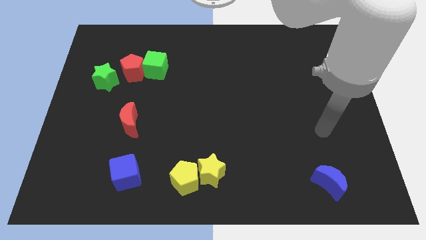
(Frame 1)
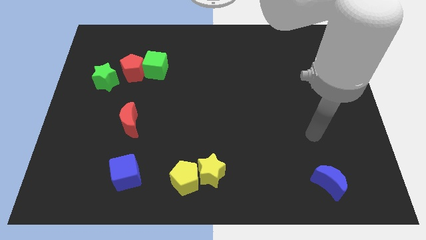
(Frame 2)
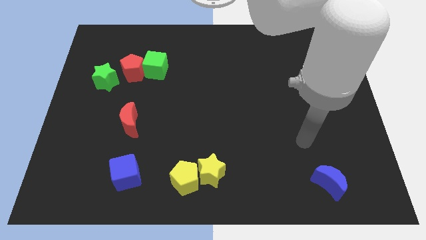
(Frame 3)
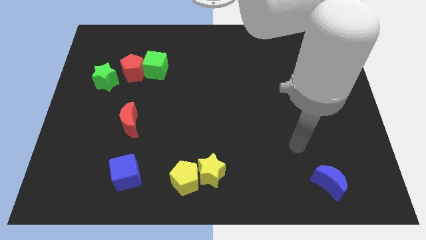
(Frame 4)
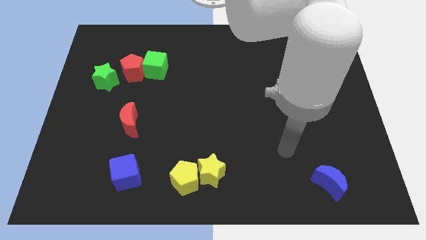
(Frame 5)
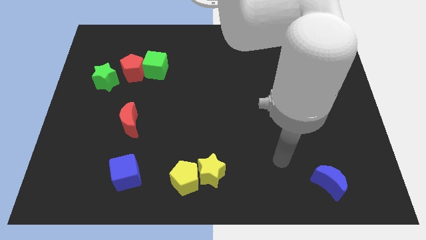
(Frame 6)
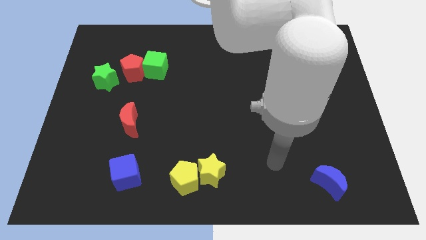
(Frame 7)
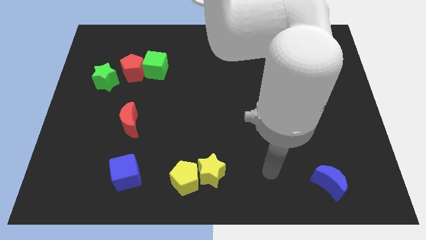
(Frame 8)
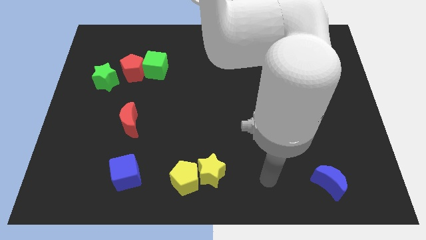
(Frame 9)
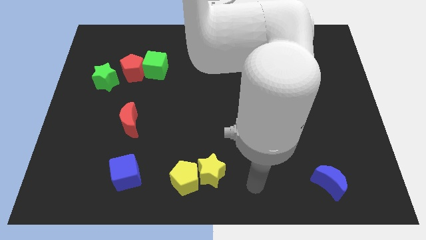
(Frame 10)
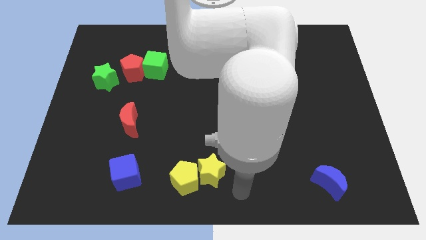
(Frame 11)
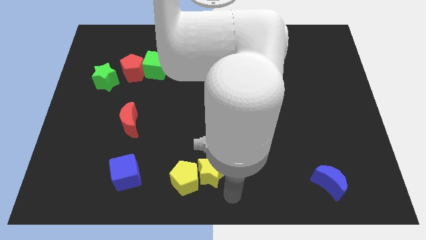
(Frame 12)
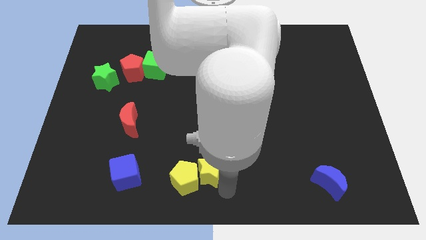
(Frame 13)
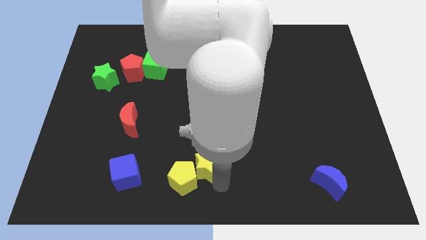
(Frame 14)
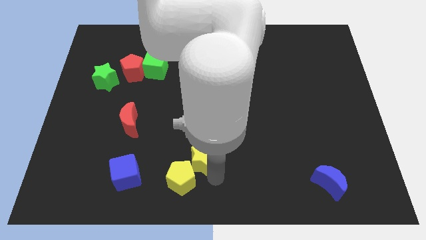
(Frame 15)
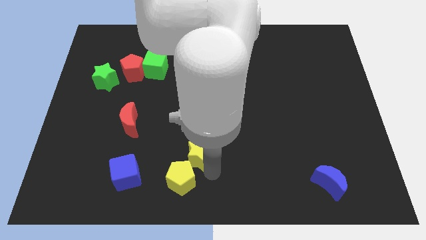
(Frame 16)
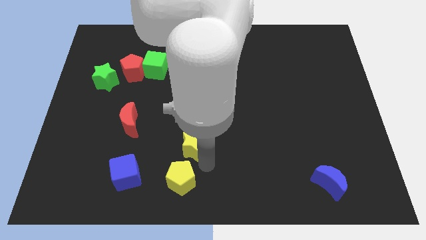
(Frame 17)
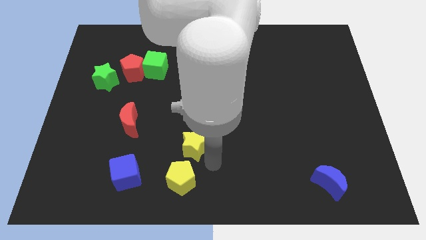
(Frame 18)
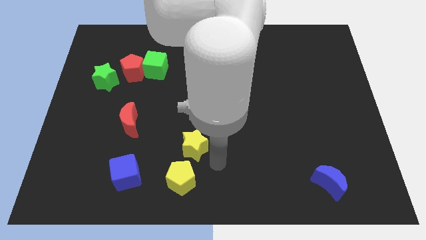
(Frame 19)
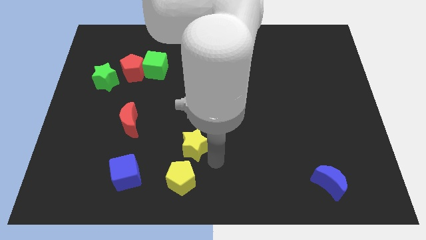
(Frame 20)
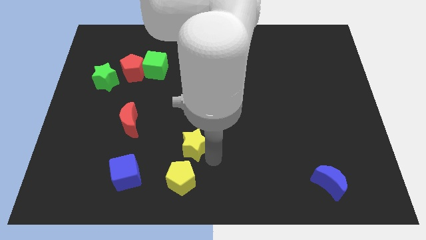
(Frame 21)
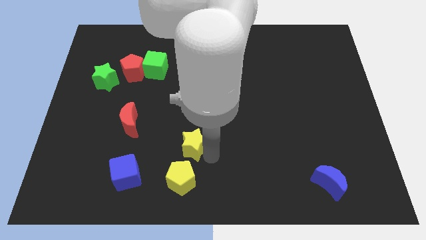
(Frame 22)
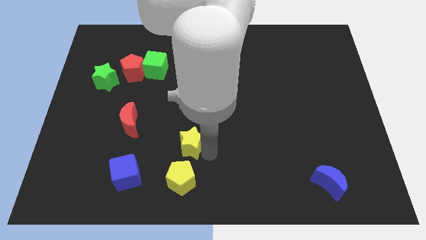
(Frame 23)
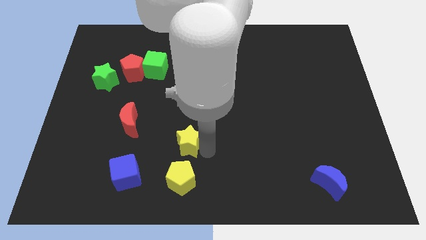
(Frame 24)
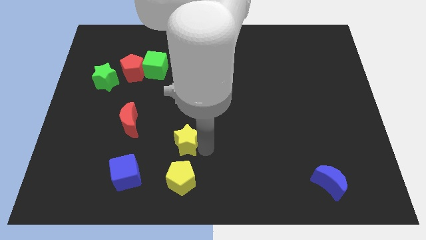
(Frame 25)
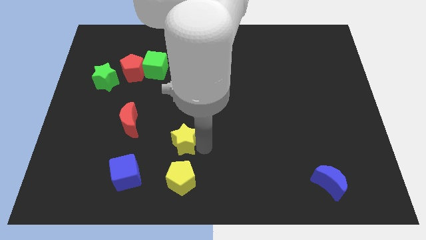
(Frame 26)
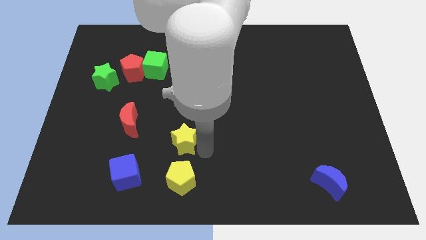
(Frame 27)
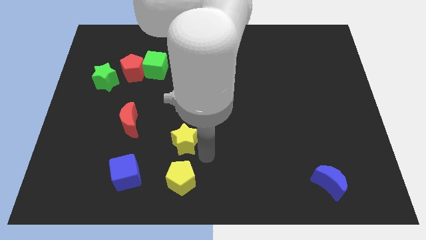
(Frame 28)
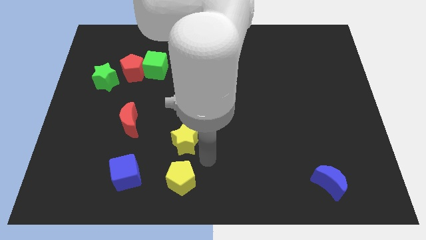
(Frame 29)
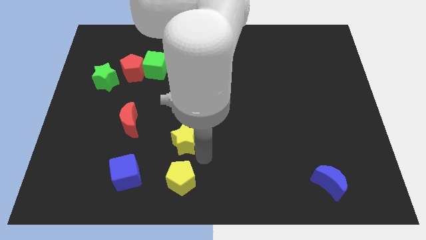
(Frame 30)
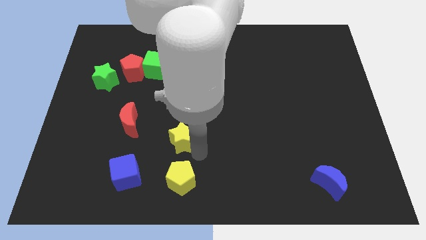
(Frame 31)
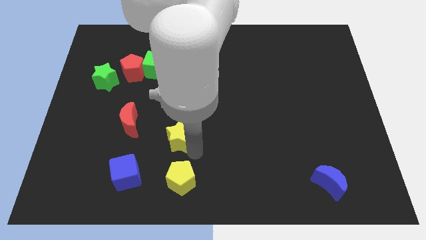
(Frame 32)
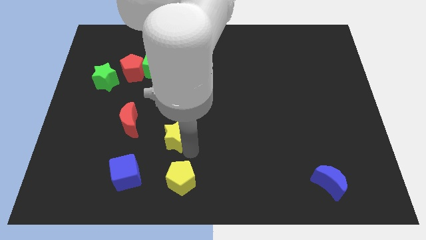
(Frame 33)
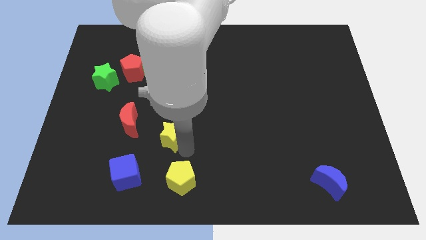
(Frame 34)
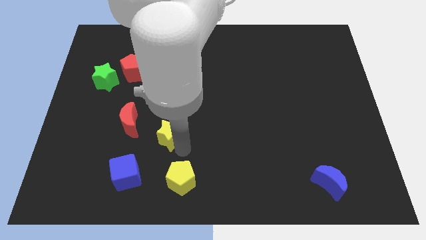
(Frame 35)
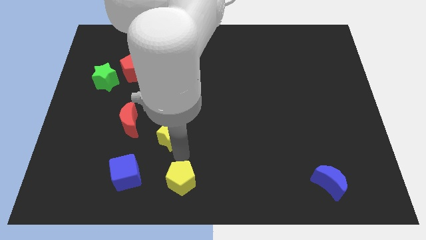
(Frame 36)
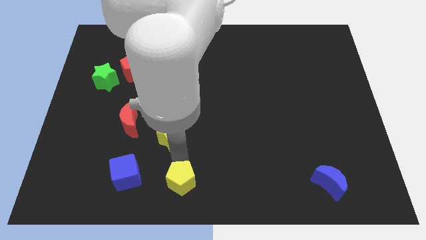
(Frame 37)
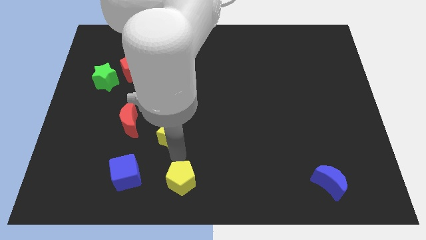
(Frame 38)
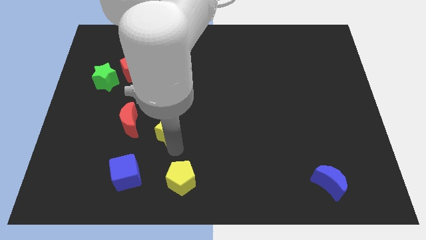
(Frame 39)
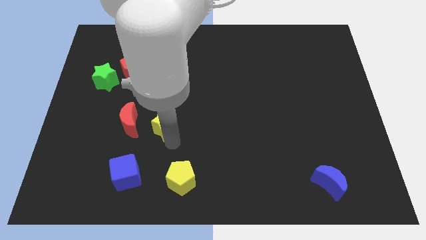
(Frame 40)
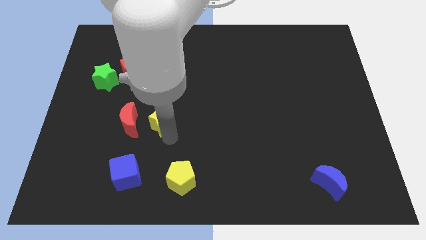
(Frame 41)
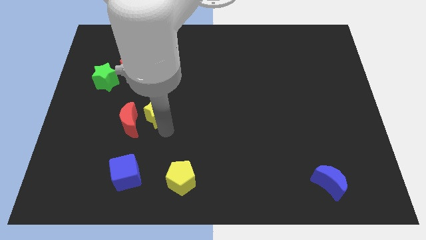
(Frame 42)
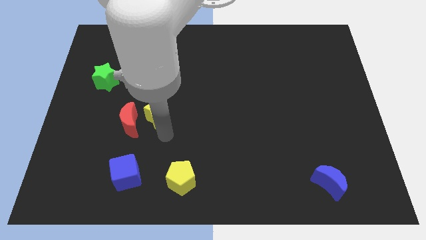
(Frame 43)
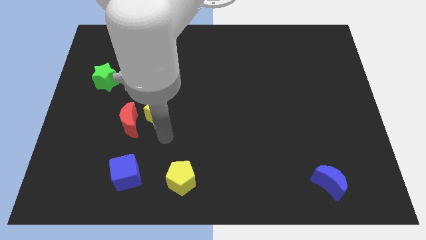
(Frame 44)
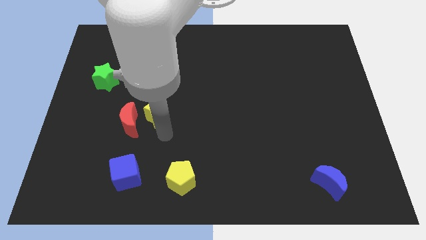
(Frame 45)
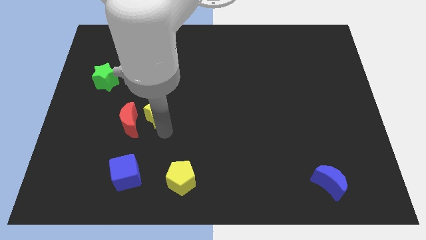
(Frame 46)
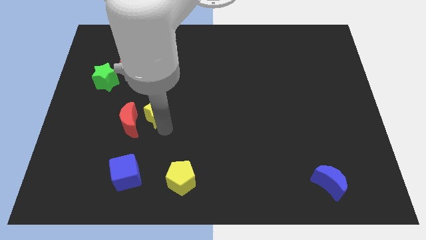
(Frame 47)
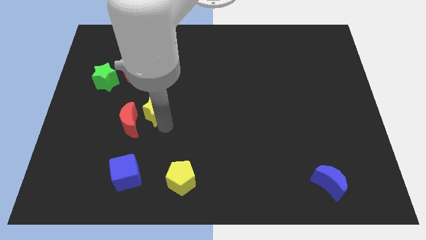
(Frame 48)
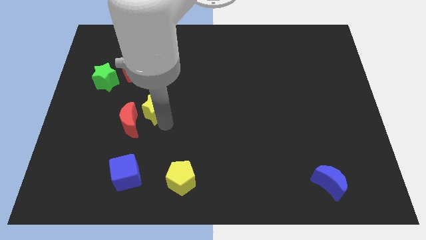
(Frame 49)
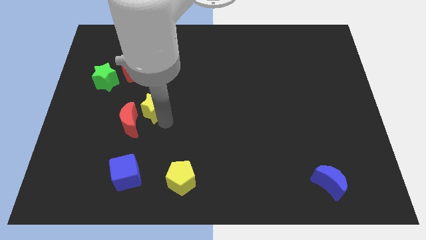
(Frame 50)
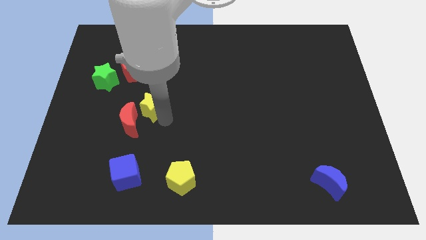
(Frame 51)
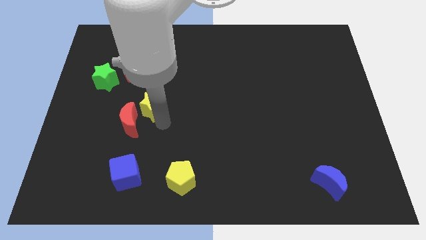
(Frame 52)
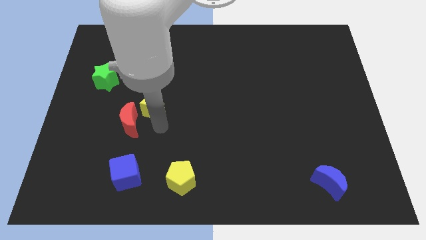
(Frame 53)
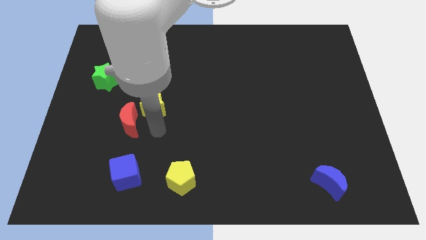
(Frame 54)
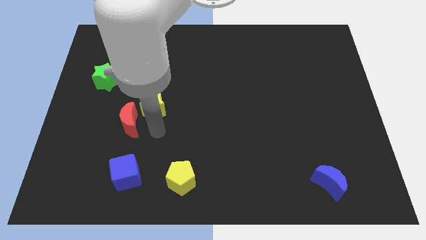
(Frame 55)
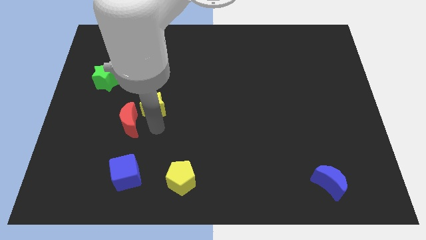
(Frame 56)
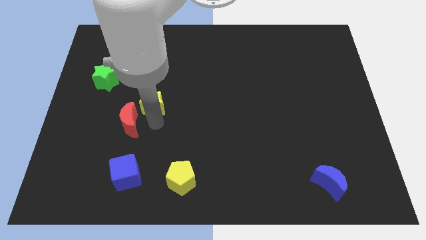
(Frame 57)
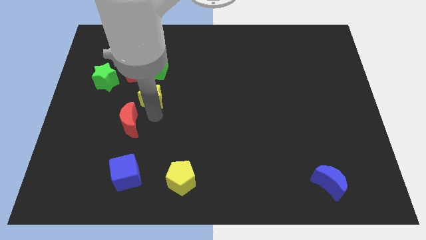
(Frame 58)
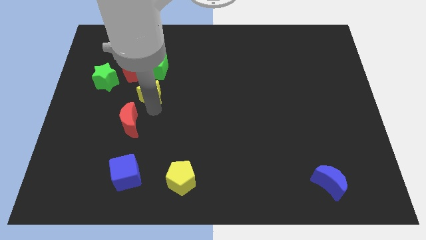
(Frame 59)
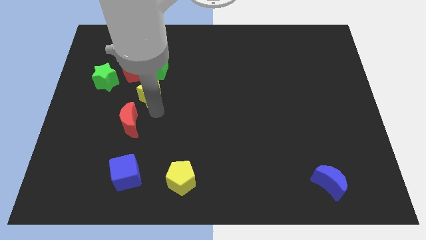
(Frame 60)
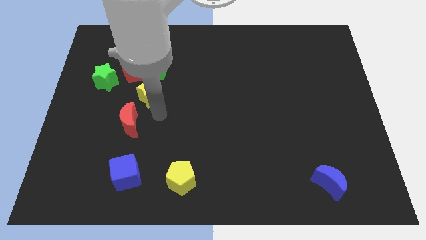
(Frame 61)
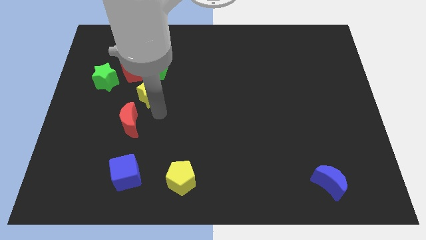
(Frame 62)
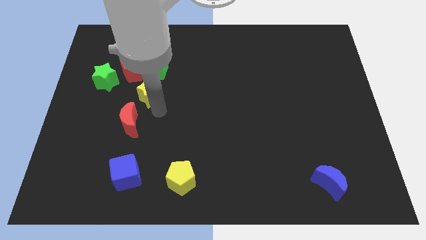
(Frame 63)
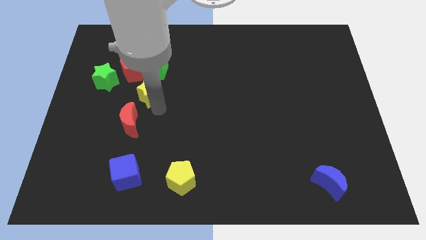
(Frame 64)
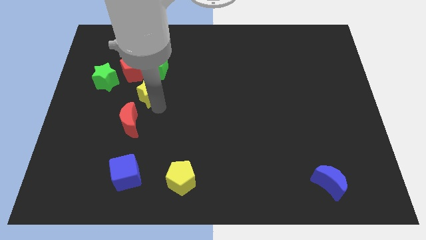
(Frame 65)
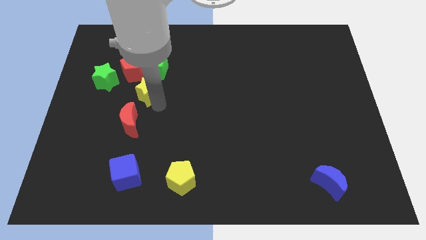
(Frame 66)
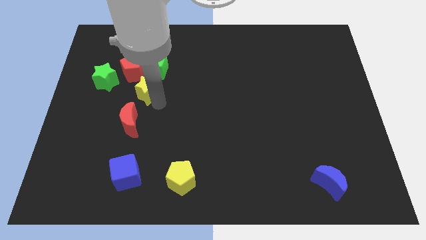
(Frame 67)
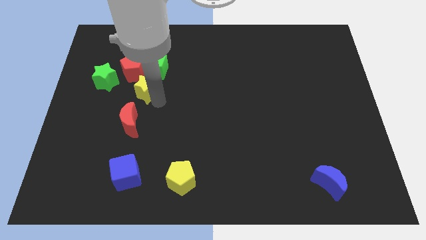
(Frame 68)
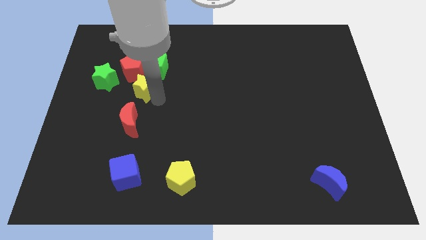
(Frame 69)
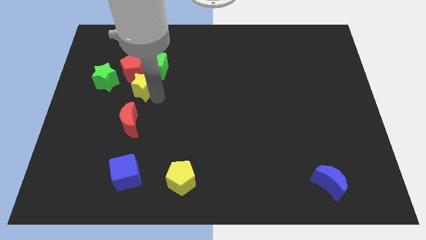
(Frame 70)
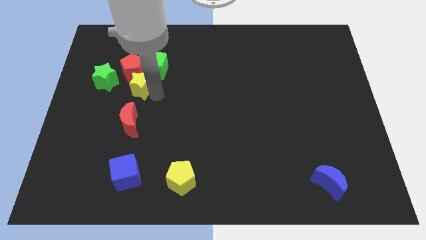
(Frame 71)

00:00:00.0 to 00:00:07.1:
push the yellow star next to the red pentagon

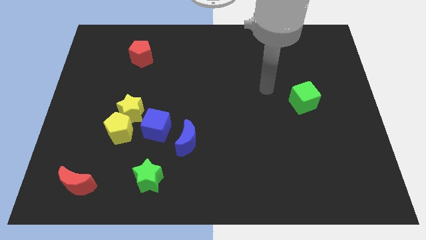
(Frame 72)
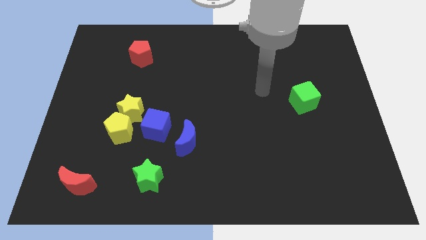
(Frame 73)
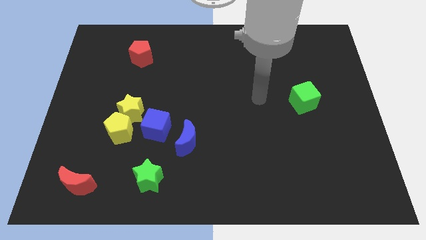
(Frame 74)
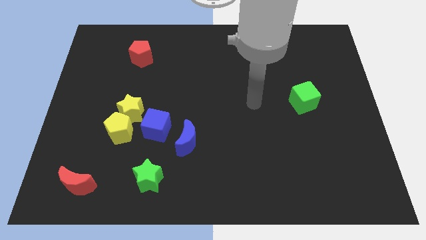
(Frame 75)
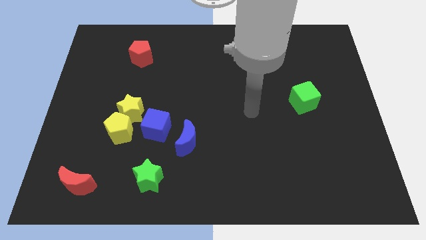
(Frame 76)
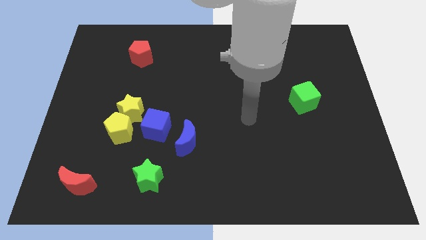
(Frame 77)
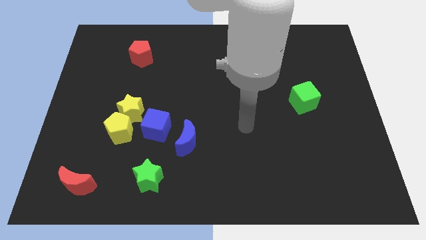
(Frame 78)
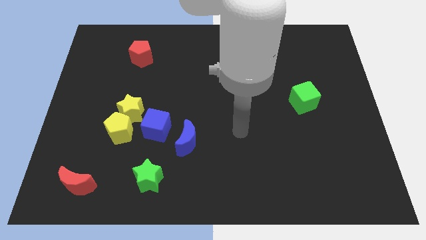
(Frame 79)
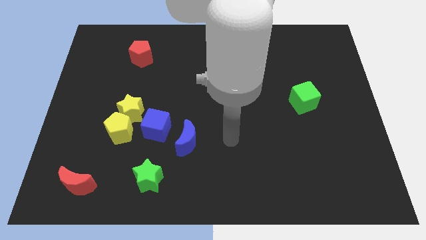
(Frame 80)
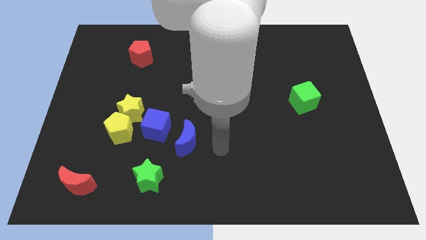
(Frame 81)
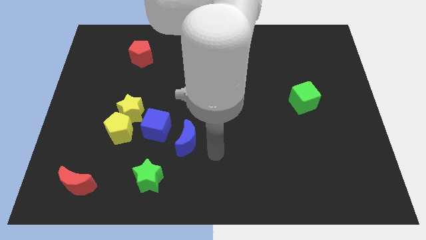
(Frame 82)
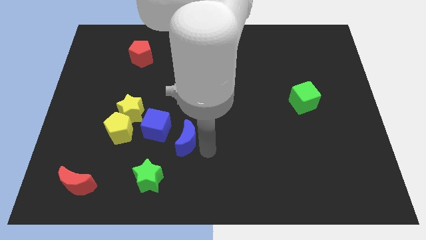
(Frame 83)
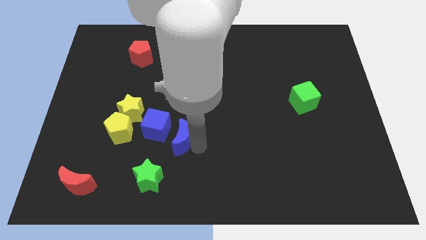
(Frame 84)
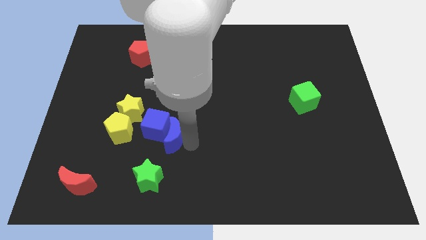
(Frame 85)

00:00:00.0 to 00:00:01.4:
slide the blue moon to the blue cube
